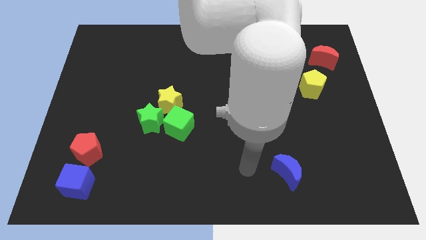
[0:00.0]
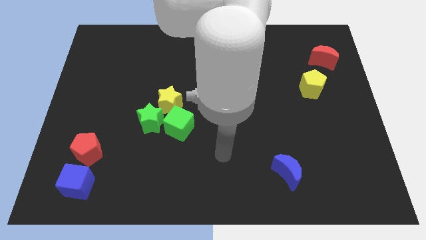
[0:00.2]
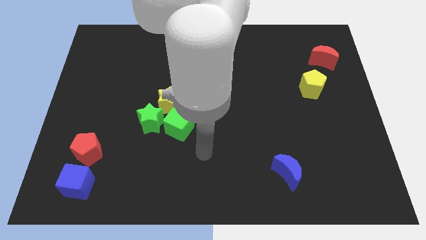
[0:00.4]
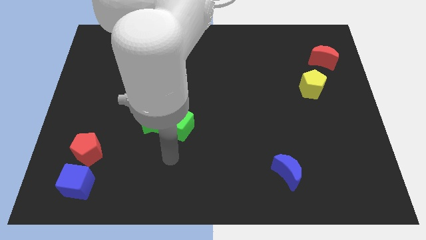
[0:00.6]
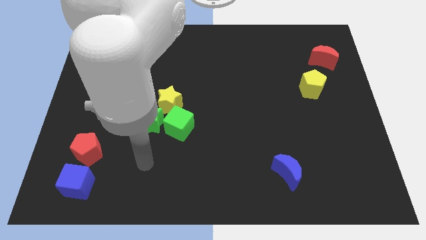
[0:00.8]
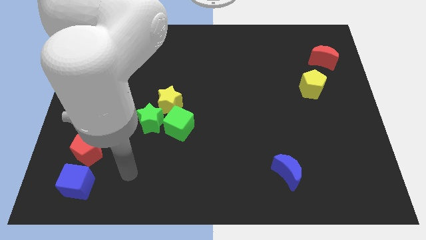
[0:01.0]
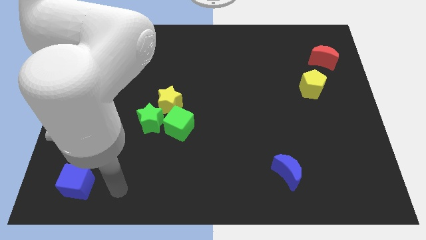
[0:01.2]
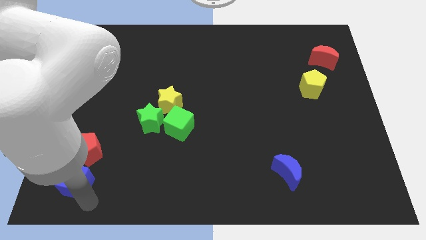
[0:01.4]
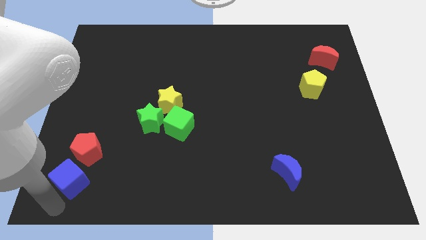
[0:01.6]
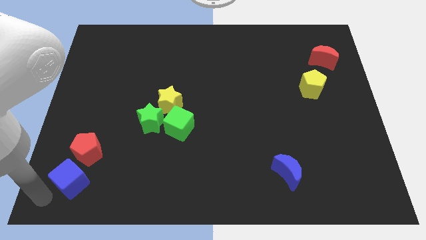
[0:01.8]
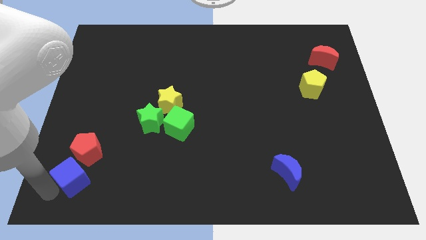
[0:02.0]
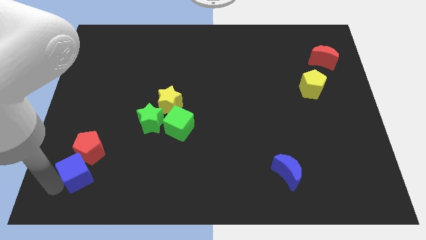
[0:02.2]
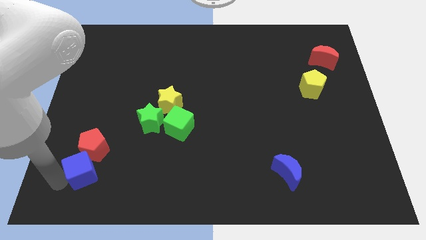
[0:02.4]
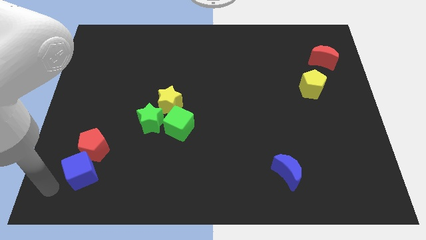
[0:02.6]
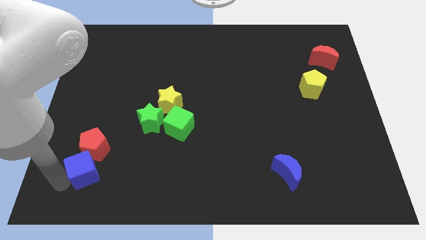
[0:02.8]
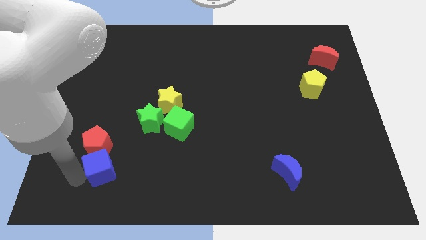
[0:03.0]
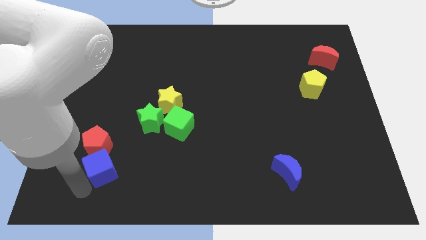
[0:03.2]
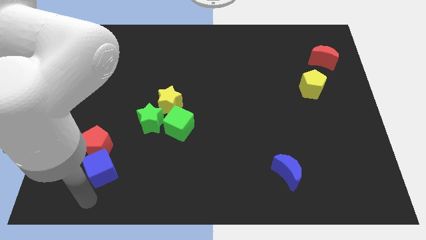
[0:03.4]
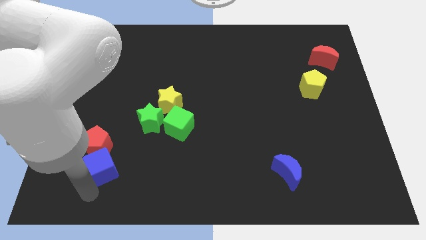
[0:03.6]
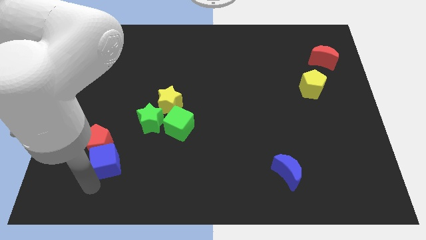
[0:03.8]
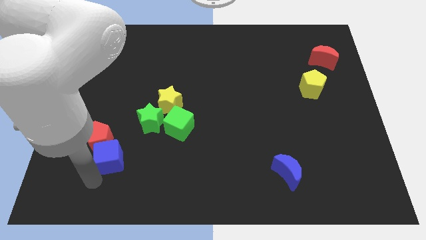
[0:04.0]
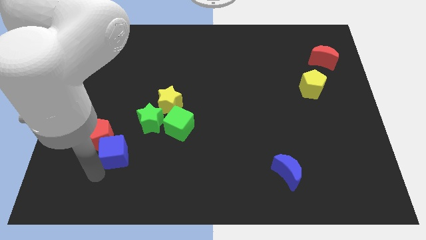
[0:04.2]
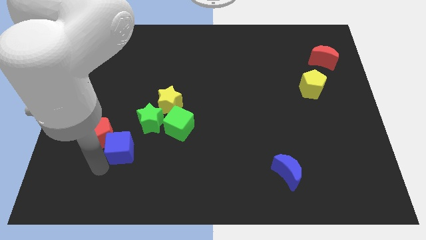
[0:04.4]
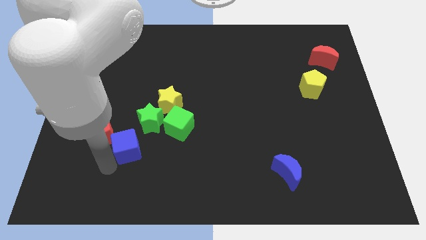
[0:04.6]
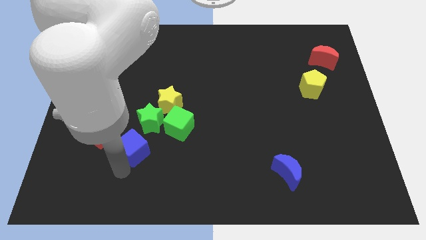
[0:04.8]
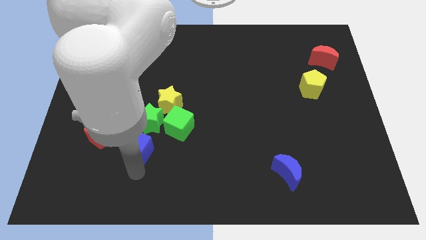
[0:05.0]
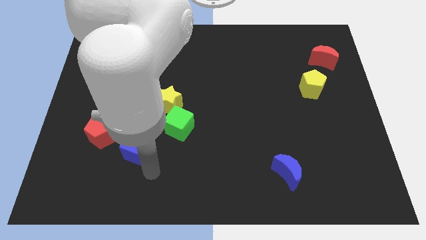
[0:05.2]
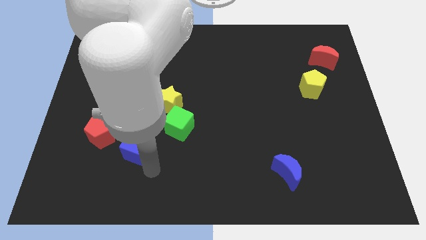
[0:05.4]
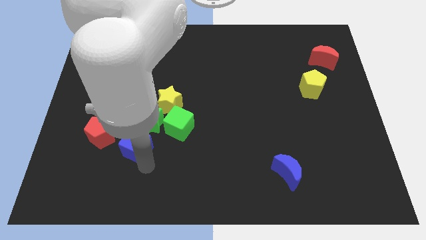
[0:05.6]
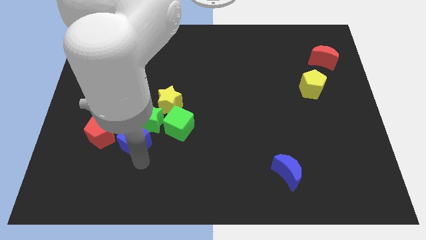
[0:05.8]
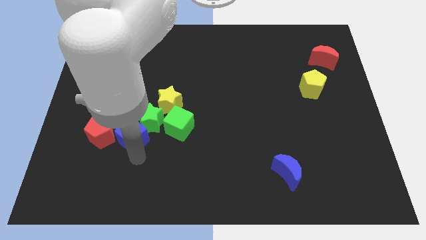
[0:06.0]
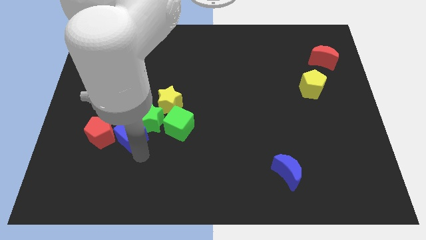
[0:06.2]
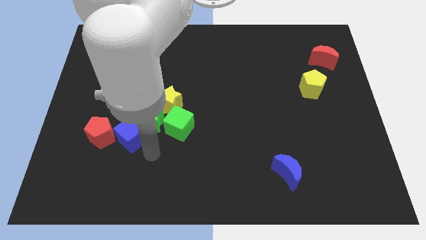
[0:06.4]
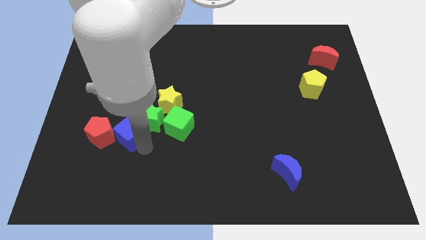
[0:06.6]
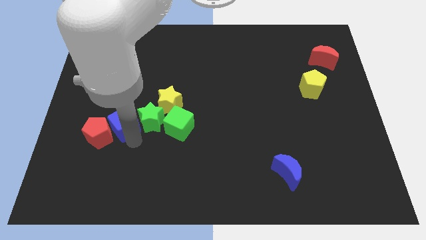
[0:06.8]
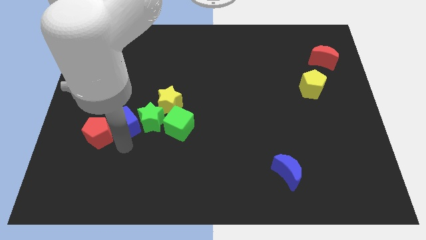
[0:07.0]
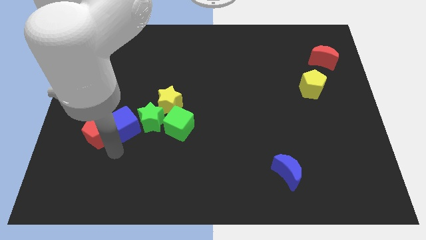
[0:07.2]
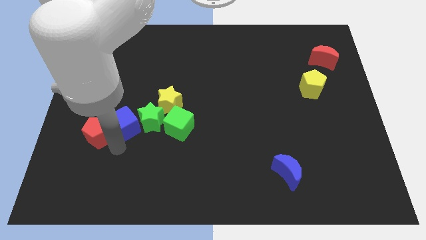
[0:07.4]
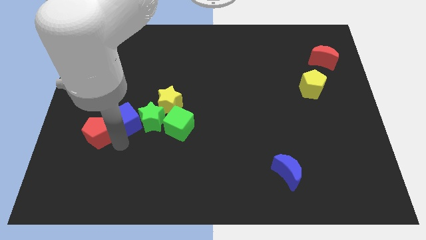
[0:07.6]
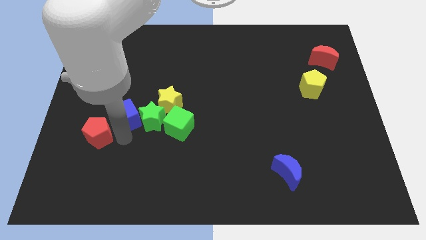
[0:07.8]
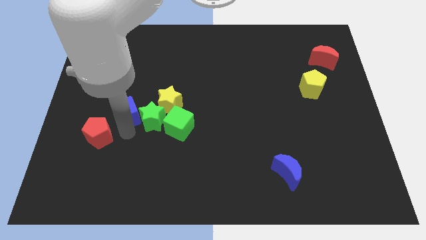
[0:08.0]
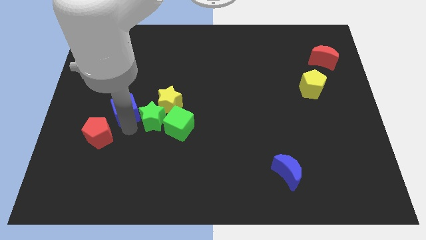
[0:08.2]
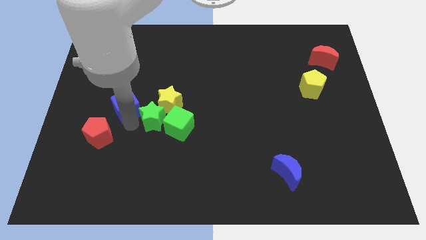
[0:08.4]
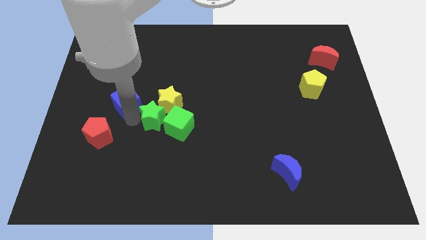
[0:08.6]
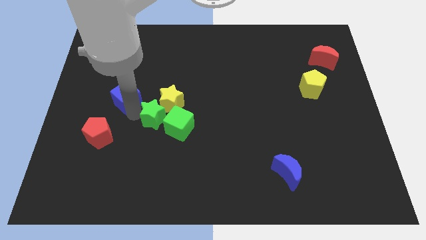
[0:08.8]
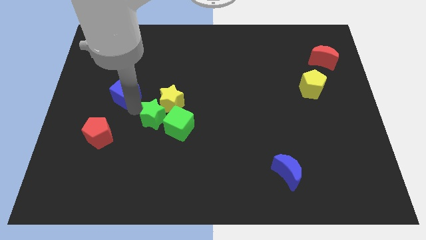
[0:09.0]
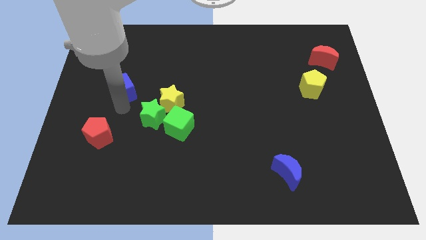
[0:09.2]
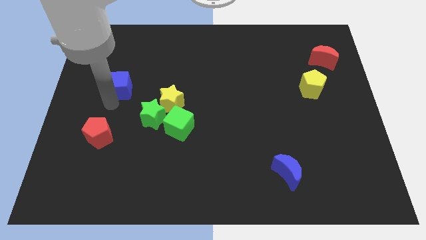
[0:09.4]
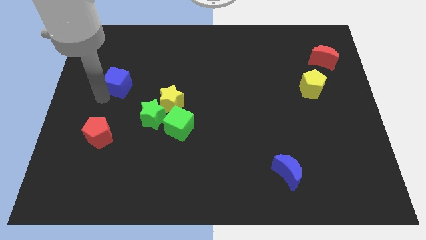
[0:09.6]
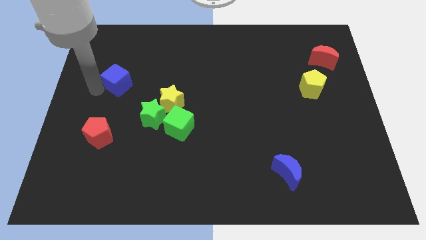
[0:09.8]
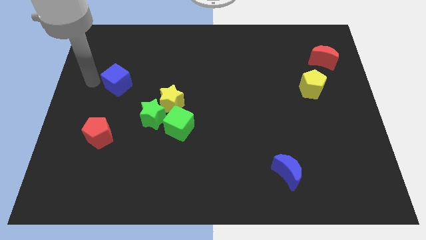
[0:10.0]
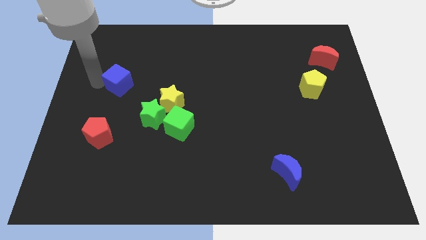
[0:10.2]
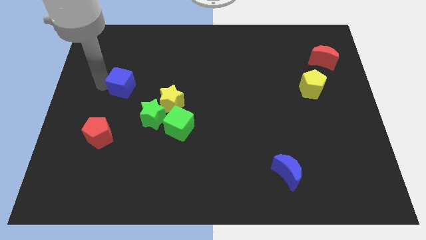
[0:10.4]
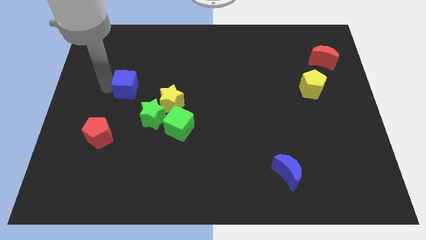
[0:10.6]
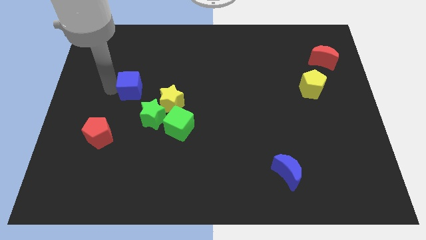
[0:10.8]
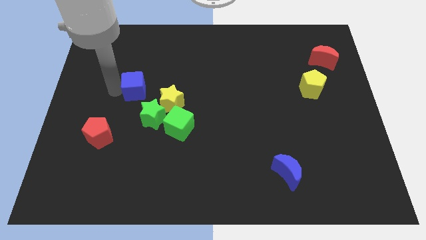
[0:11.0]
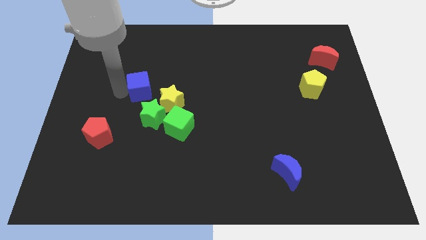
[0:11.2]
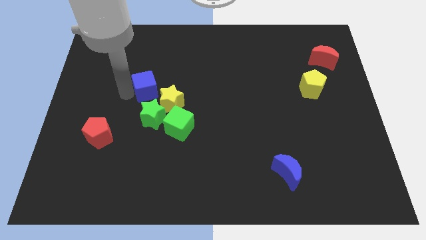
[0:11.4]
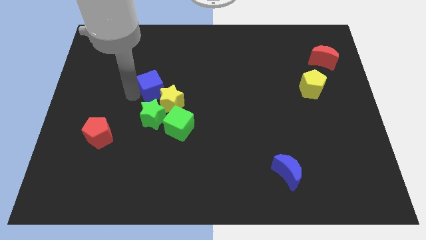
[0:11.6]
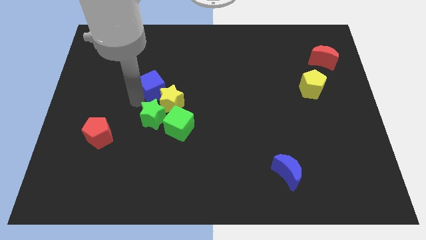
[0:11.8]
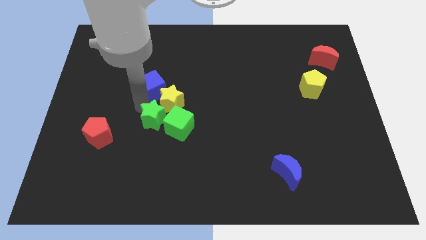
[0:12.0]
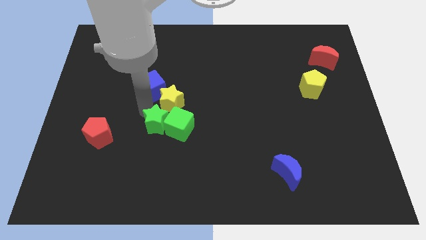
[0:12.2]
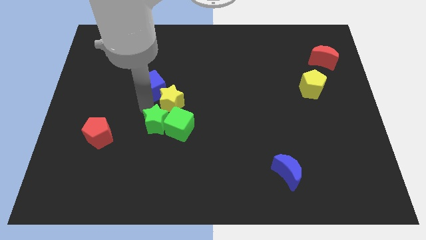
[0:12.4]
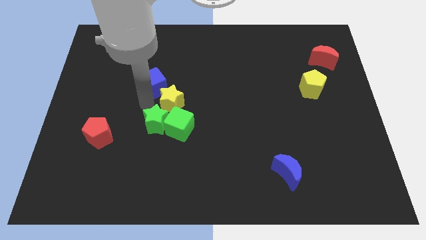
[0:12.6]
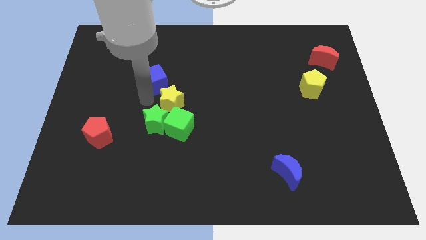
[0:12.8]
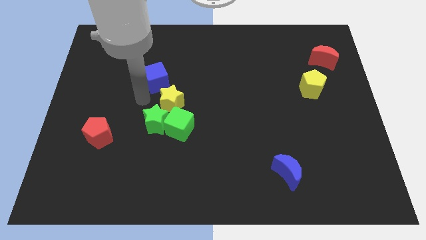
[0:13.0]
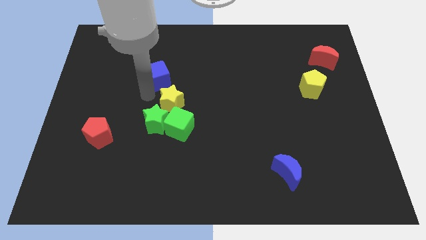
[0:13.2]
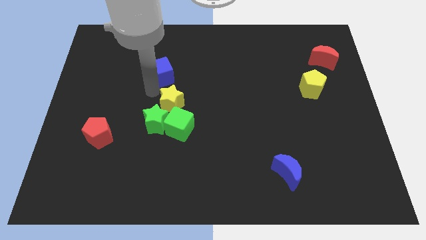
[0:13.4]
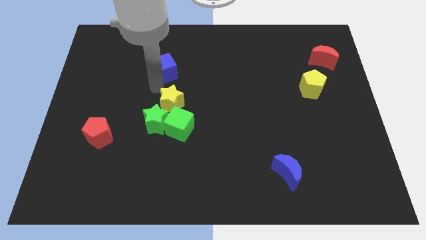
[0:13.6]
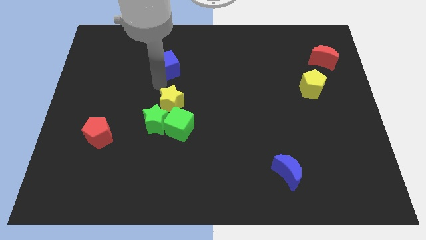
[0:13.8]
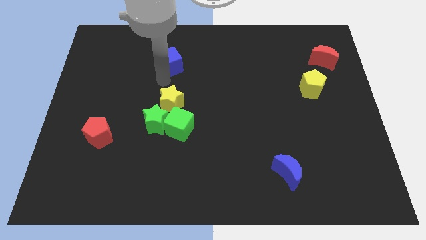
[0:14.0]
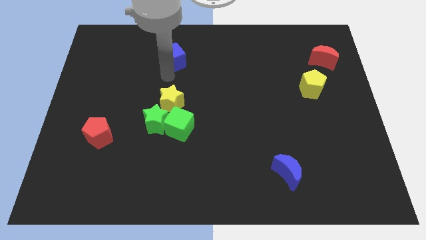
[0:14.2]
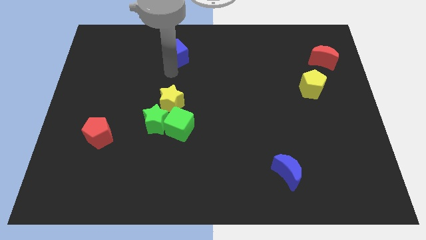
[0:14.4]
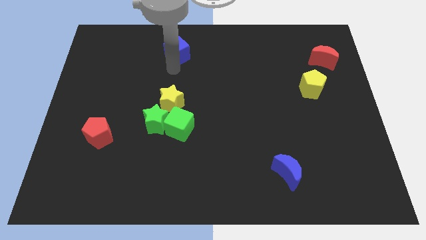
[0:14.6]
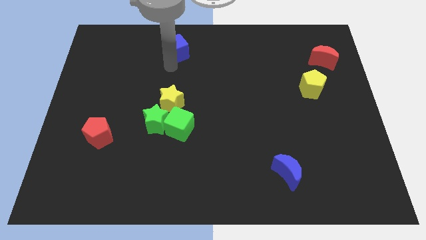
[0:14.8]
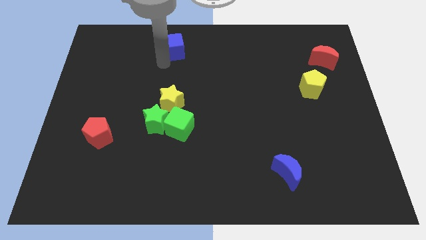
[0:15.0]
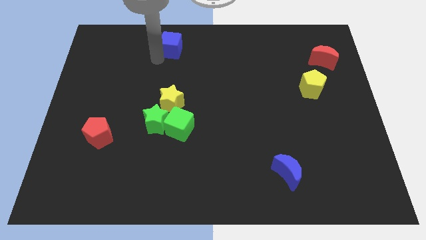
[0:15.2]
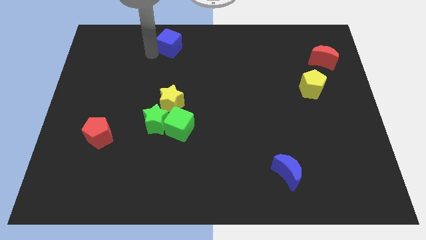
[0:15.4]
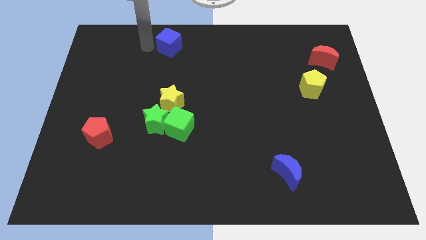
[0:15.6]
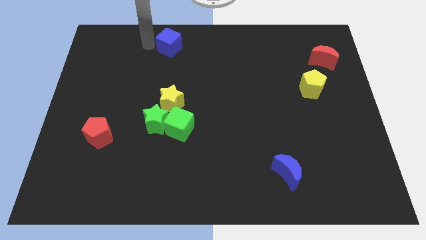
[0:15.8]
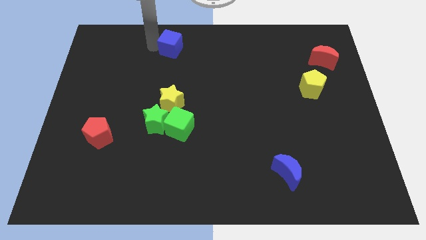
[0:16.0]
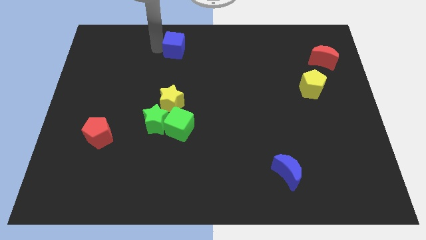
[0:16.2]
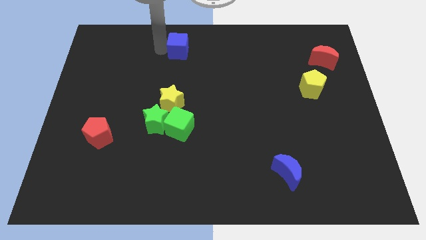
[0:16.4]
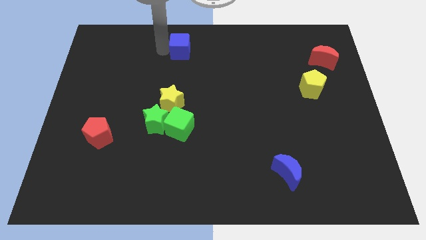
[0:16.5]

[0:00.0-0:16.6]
slide the blue cube to the top
